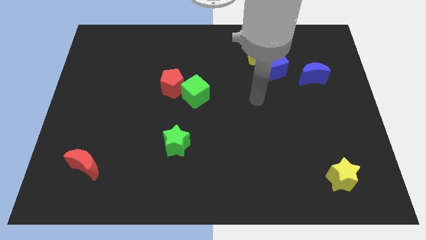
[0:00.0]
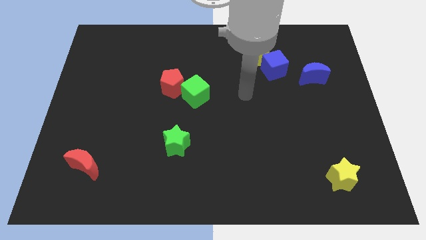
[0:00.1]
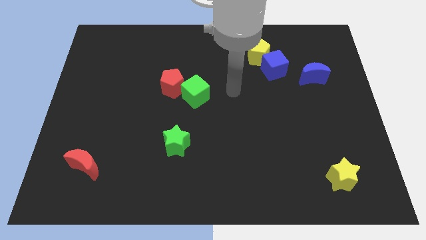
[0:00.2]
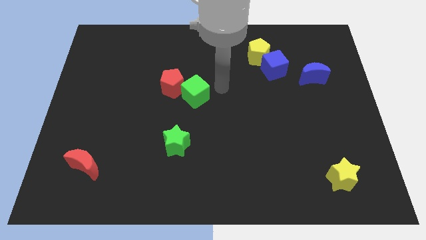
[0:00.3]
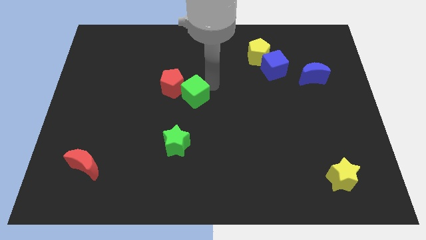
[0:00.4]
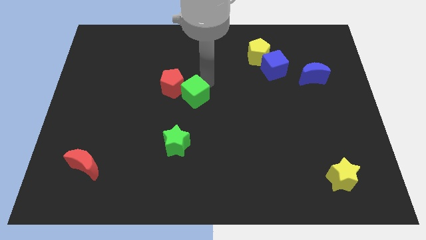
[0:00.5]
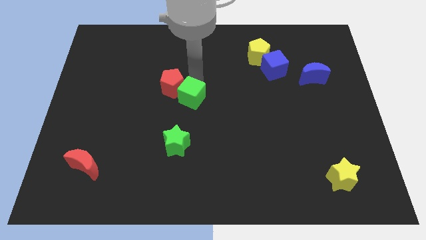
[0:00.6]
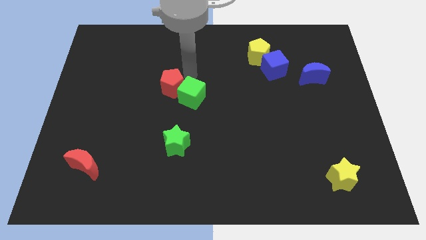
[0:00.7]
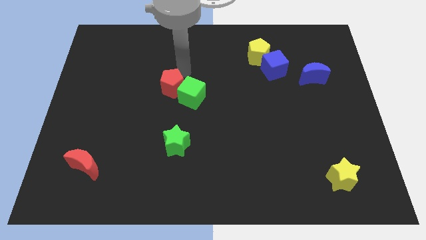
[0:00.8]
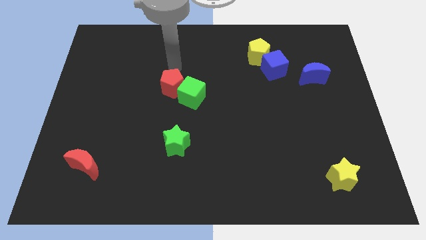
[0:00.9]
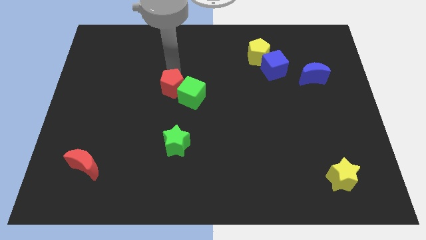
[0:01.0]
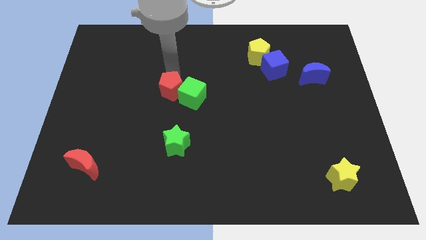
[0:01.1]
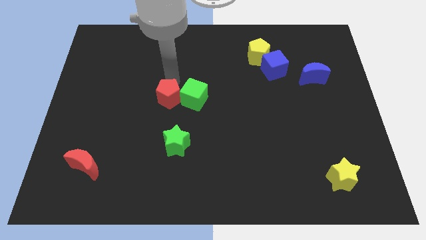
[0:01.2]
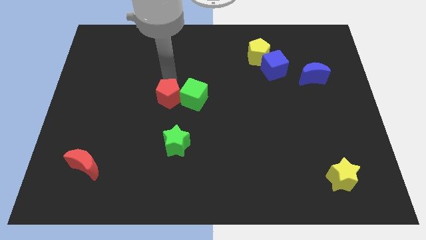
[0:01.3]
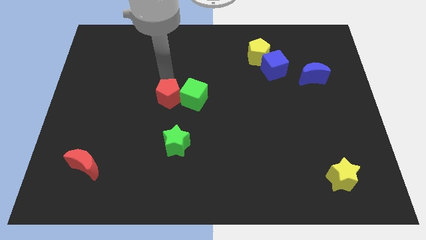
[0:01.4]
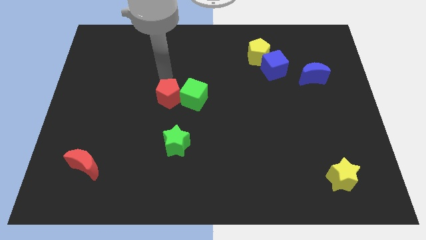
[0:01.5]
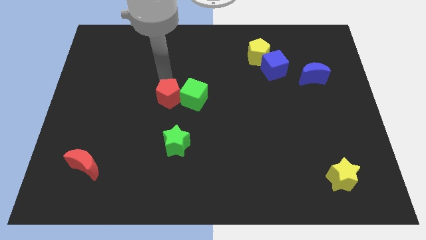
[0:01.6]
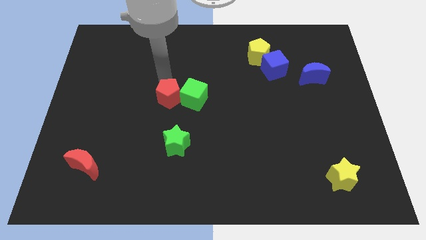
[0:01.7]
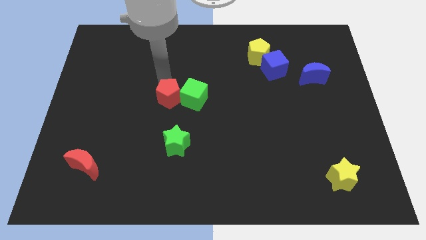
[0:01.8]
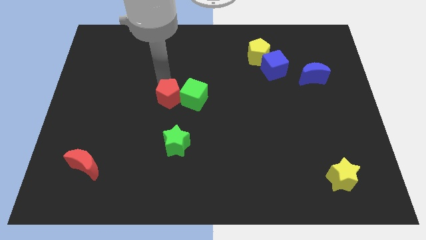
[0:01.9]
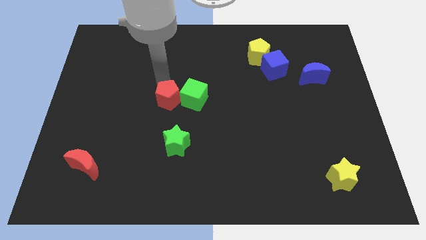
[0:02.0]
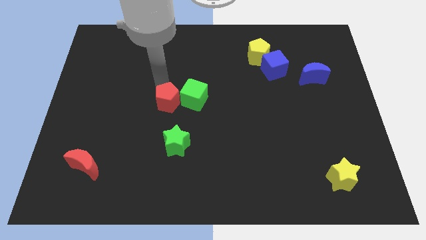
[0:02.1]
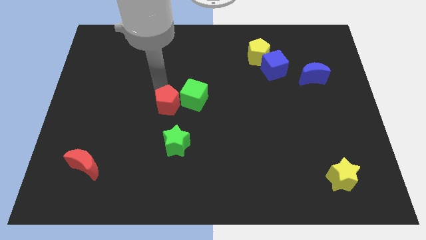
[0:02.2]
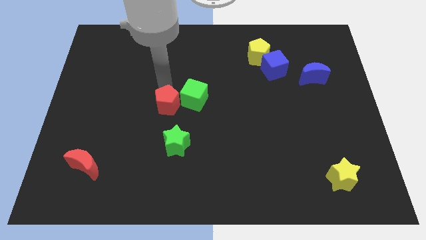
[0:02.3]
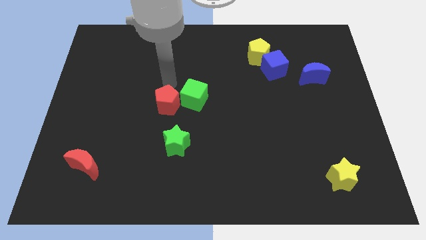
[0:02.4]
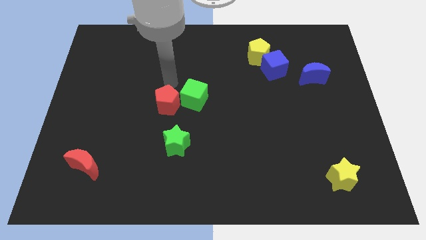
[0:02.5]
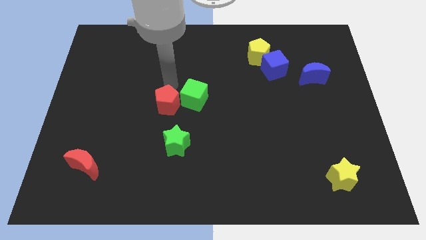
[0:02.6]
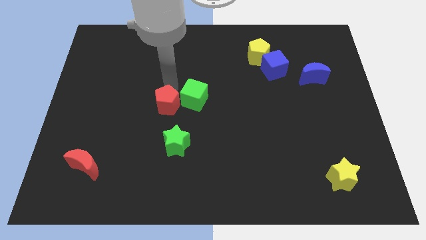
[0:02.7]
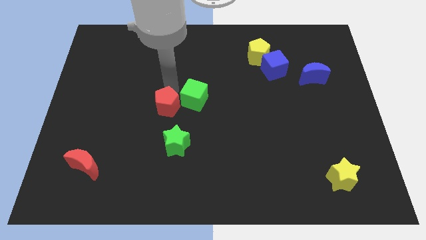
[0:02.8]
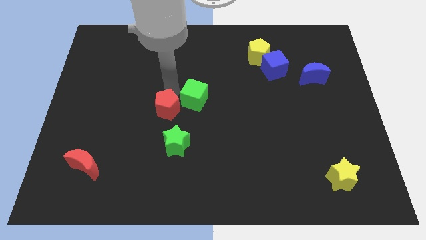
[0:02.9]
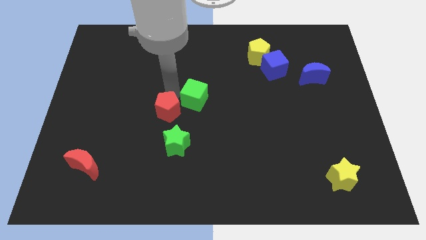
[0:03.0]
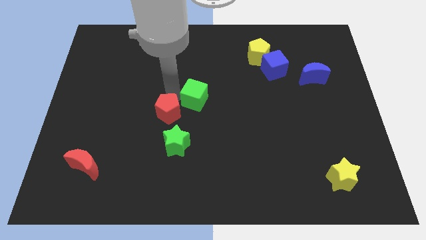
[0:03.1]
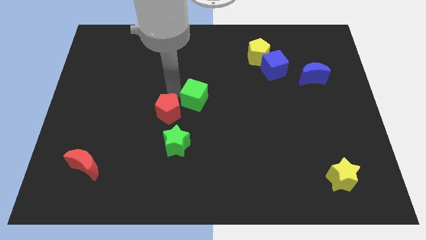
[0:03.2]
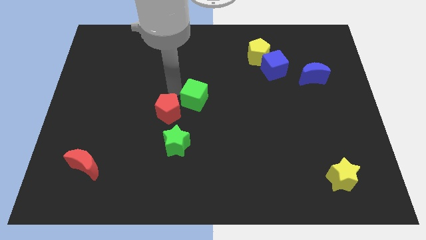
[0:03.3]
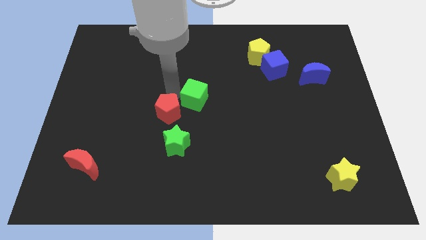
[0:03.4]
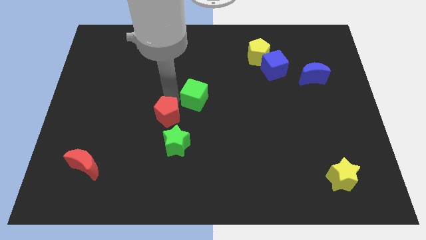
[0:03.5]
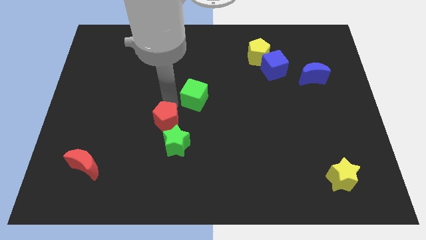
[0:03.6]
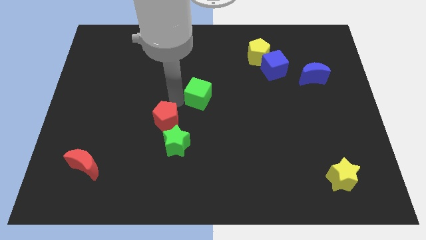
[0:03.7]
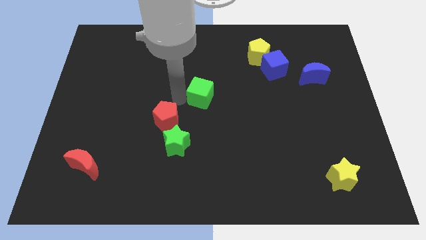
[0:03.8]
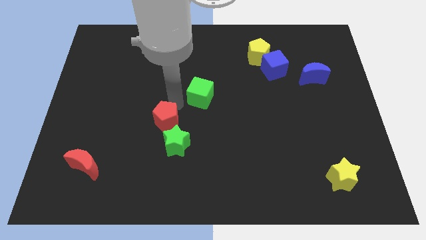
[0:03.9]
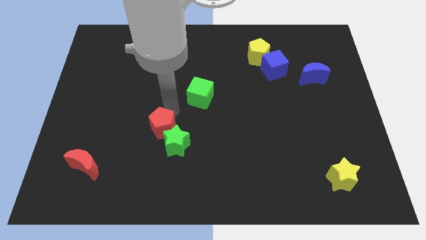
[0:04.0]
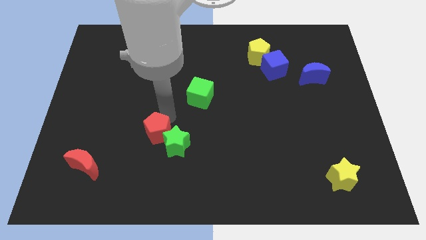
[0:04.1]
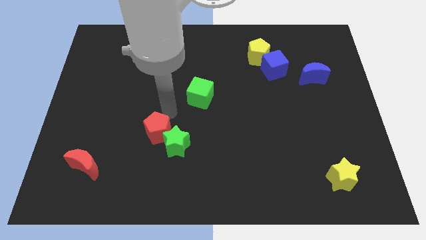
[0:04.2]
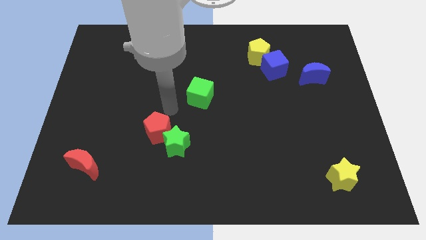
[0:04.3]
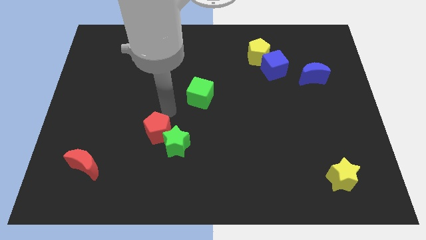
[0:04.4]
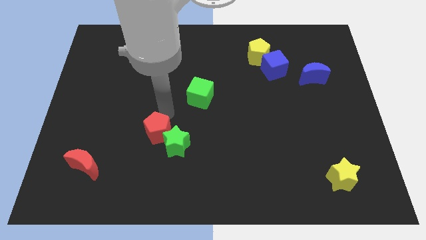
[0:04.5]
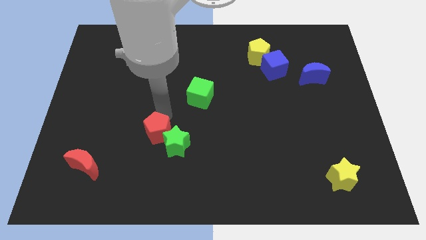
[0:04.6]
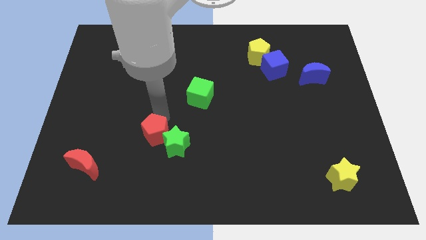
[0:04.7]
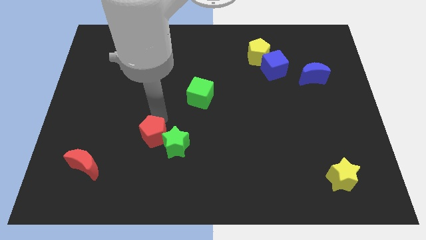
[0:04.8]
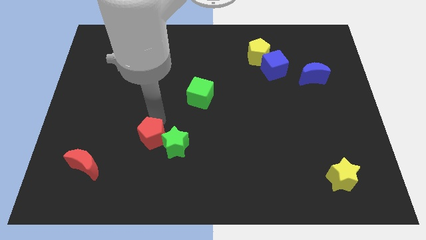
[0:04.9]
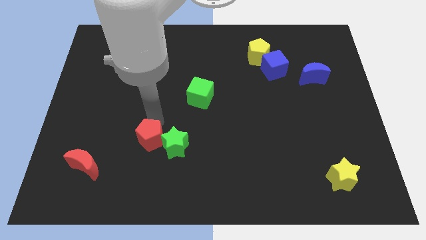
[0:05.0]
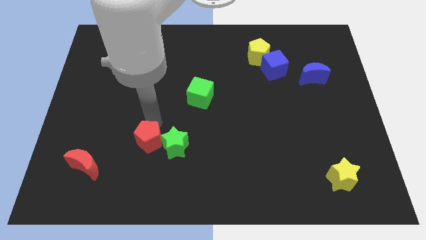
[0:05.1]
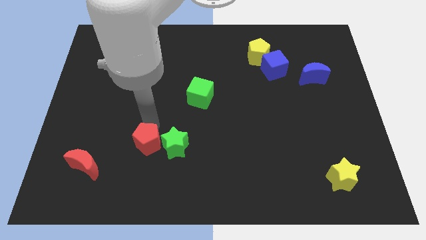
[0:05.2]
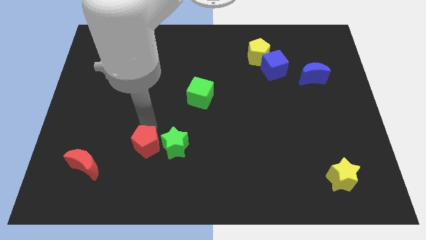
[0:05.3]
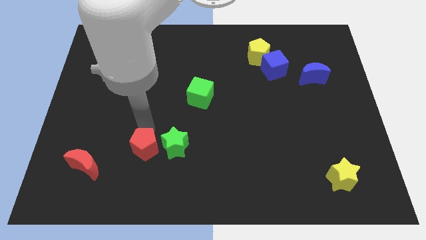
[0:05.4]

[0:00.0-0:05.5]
push the red pentagon to the right side of the red moon

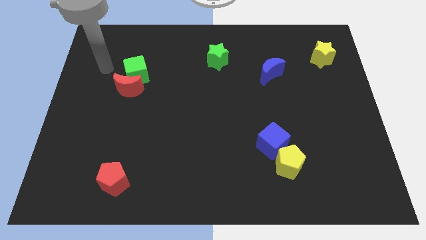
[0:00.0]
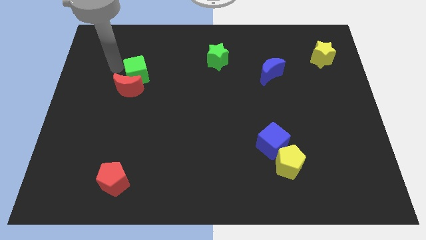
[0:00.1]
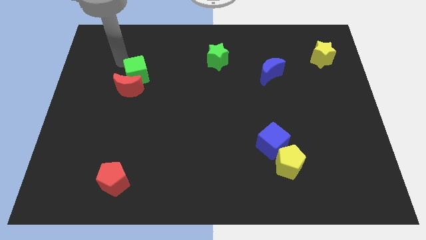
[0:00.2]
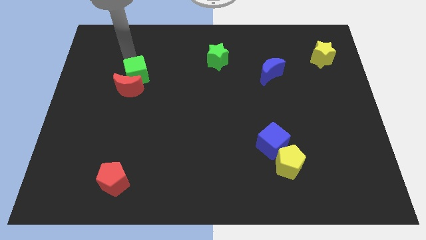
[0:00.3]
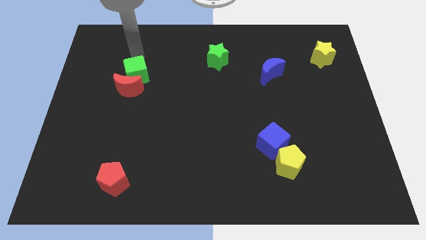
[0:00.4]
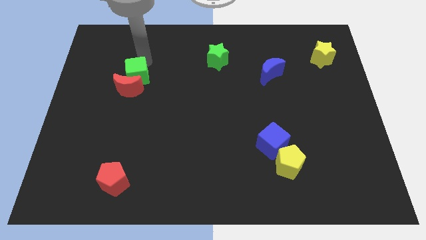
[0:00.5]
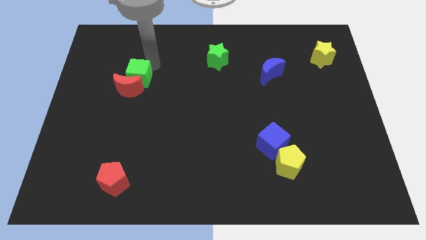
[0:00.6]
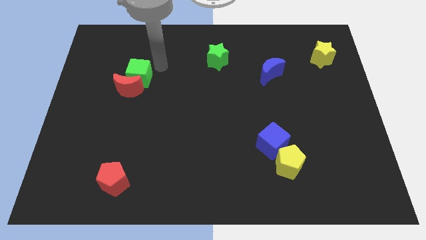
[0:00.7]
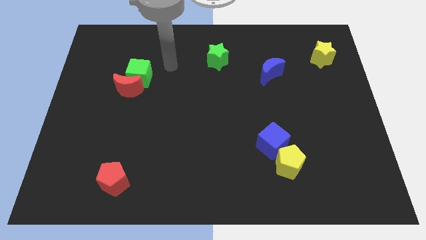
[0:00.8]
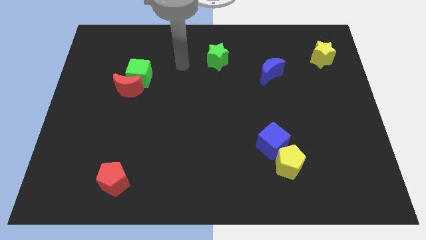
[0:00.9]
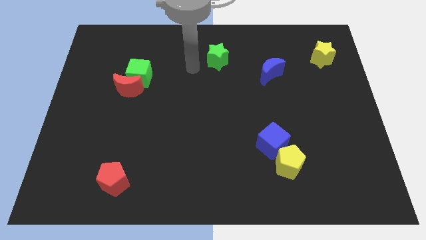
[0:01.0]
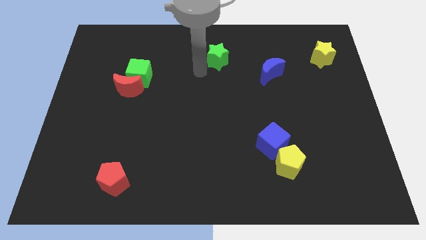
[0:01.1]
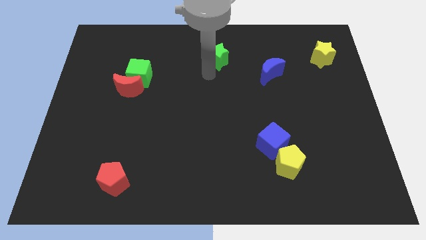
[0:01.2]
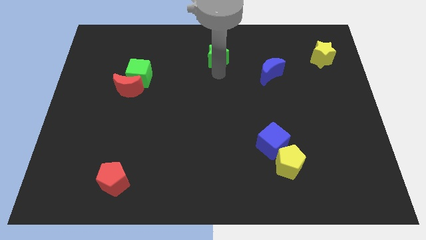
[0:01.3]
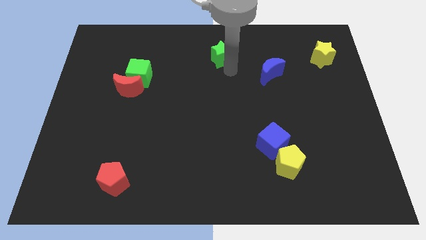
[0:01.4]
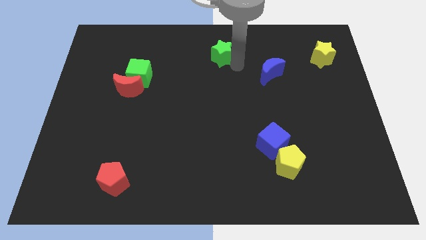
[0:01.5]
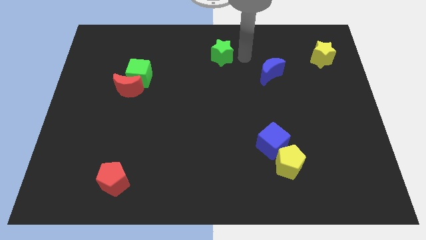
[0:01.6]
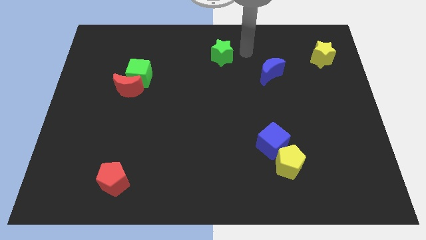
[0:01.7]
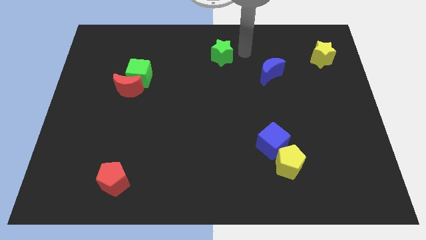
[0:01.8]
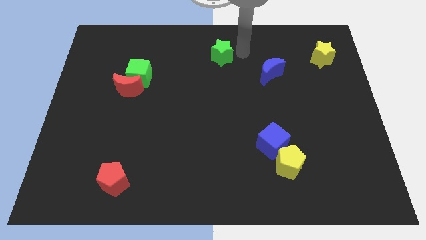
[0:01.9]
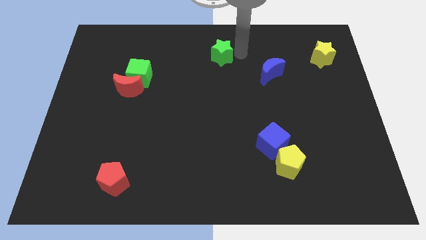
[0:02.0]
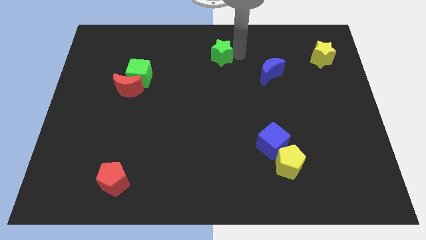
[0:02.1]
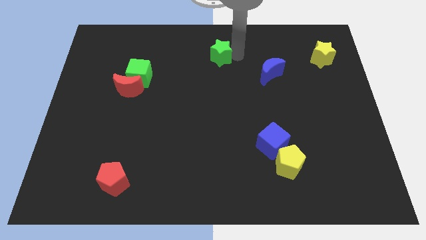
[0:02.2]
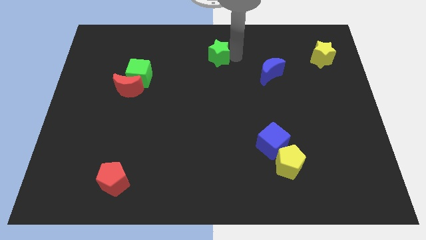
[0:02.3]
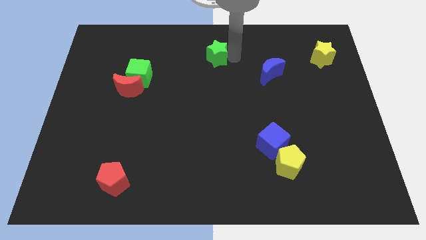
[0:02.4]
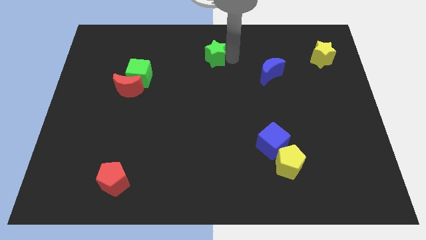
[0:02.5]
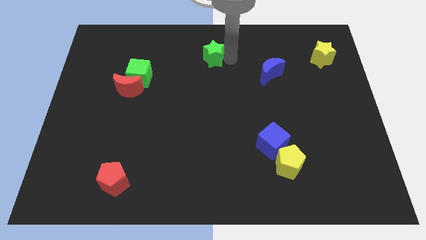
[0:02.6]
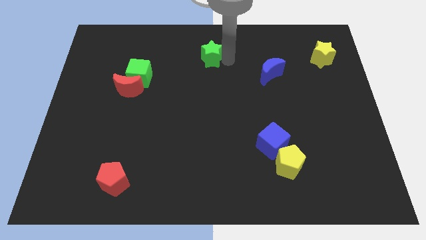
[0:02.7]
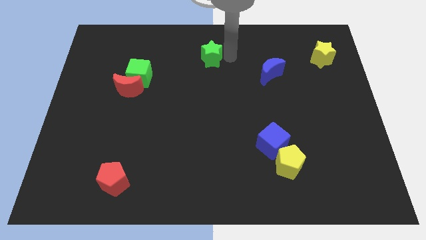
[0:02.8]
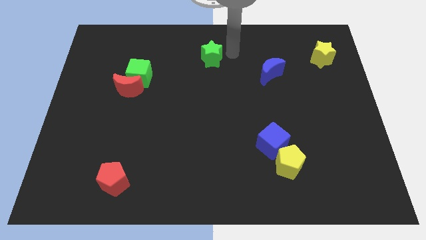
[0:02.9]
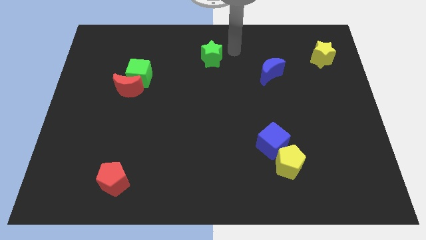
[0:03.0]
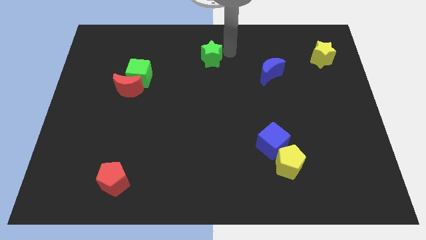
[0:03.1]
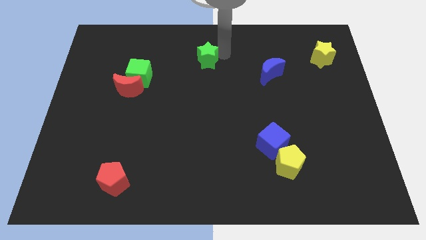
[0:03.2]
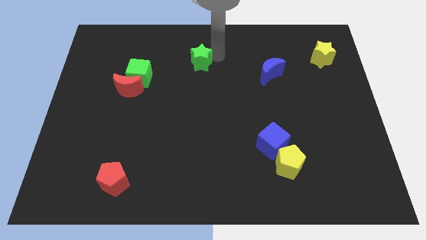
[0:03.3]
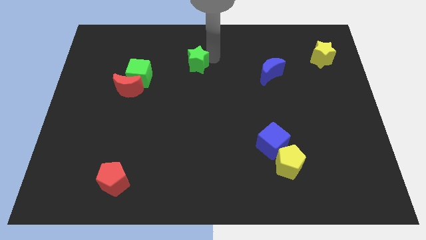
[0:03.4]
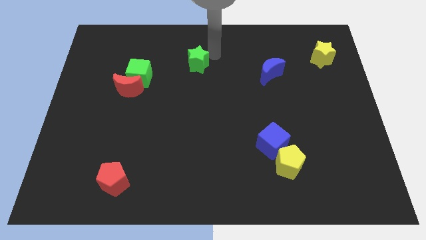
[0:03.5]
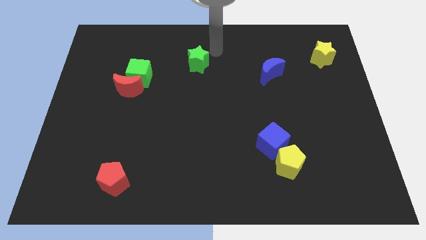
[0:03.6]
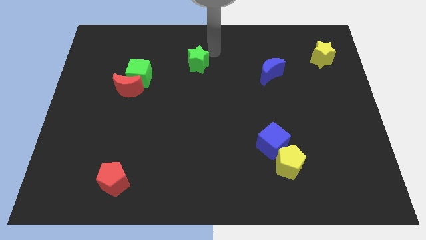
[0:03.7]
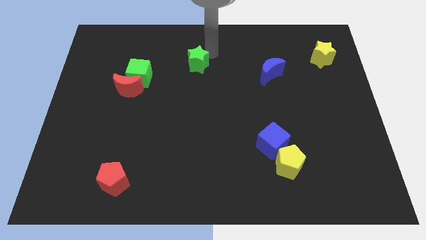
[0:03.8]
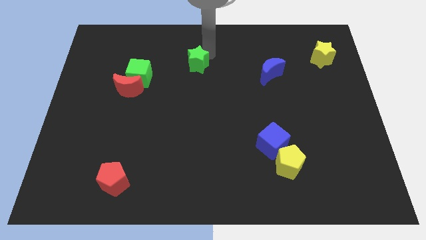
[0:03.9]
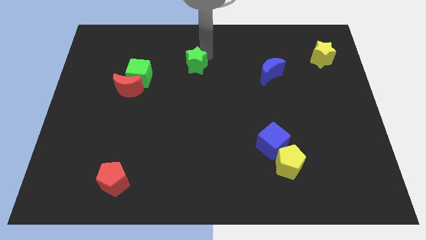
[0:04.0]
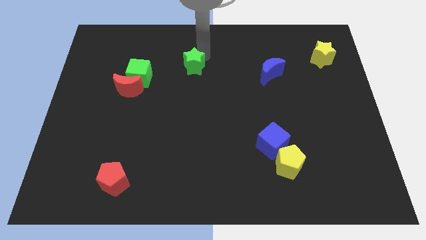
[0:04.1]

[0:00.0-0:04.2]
put the green star to the right of the green cube
